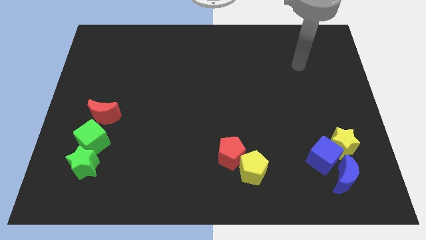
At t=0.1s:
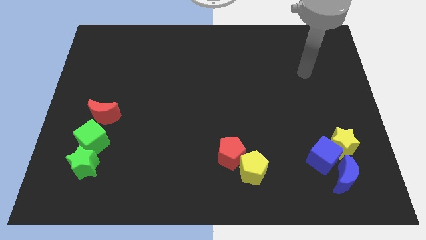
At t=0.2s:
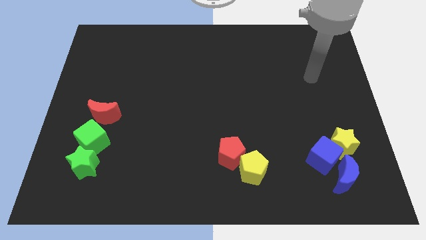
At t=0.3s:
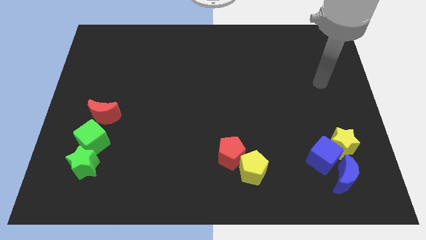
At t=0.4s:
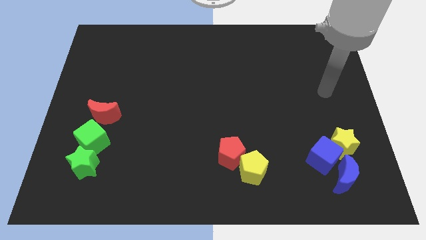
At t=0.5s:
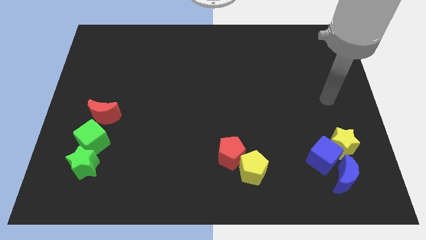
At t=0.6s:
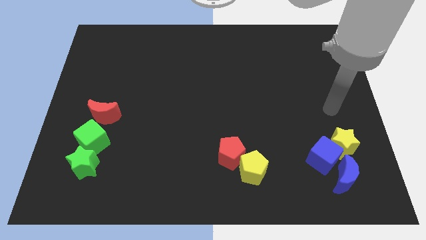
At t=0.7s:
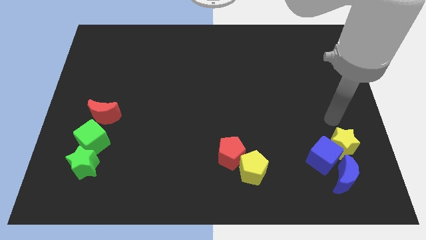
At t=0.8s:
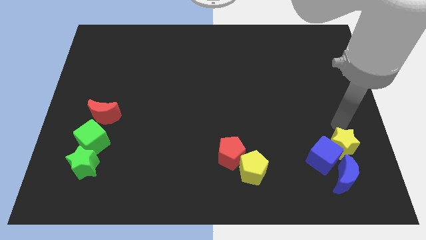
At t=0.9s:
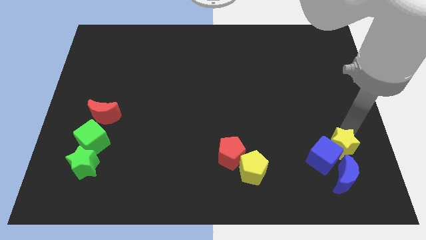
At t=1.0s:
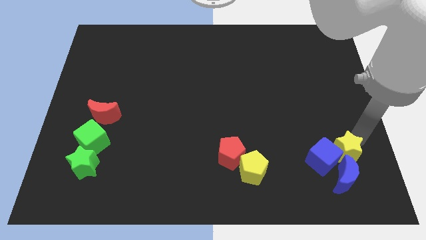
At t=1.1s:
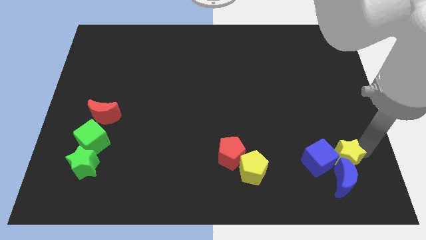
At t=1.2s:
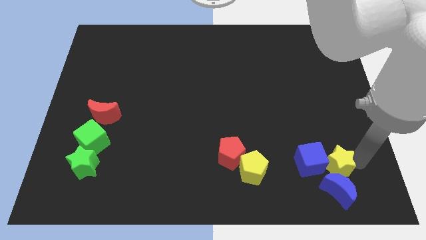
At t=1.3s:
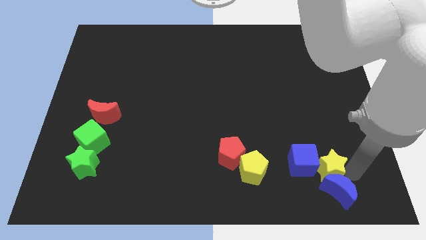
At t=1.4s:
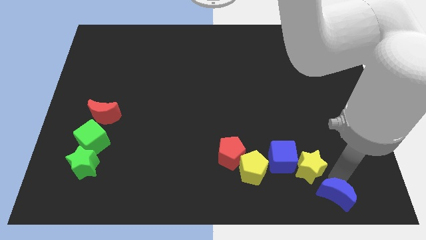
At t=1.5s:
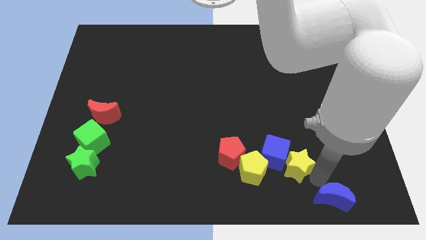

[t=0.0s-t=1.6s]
separate the blue cube from the yellow star and blue moon

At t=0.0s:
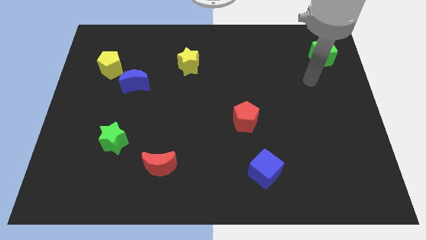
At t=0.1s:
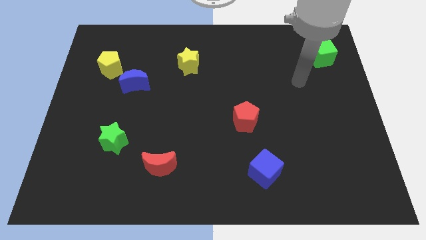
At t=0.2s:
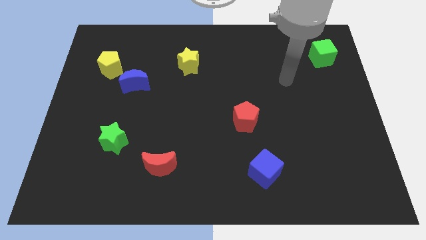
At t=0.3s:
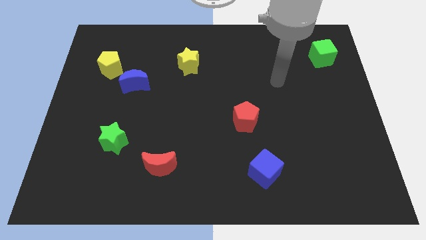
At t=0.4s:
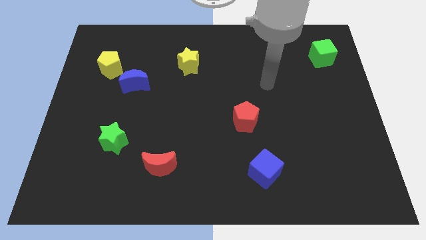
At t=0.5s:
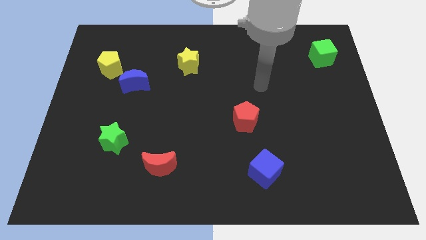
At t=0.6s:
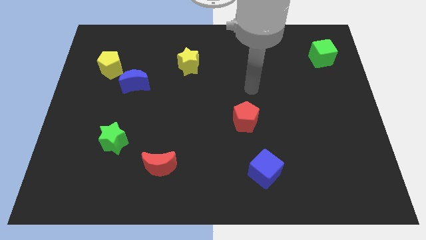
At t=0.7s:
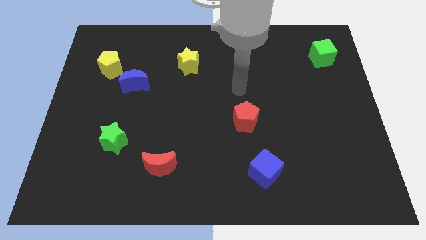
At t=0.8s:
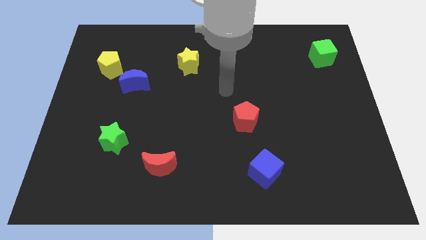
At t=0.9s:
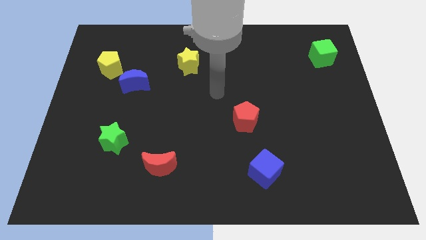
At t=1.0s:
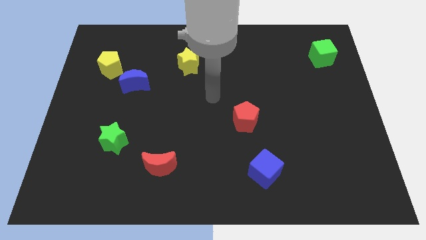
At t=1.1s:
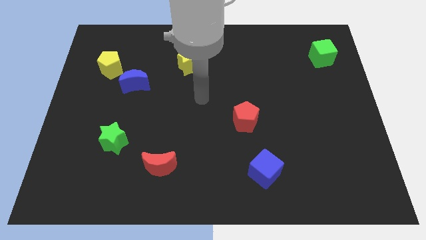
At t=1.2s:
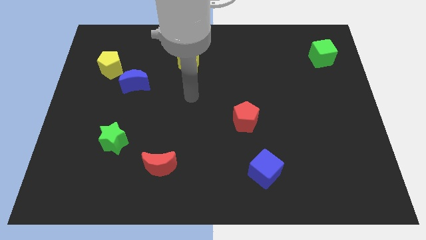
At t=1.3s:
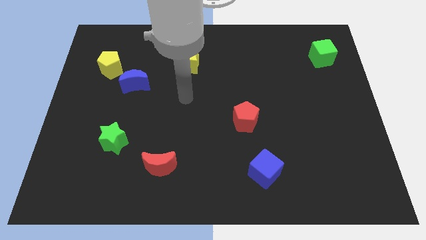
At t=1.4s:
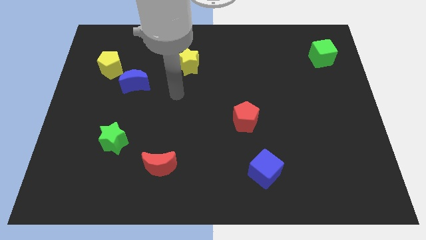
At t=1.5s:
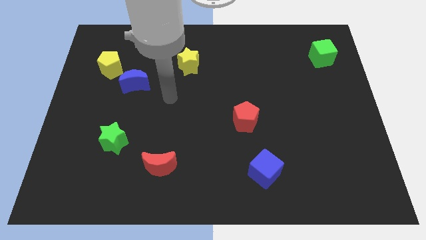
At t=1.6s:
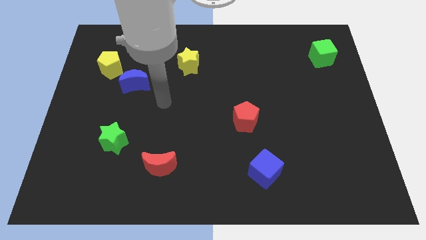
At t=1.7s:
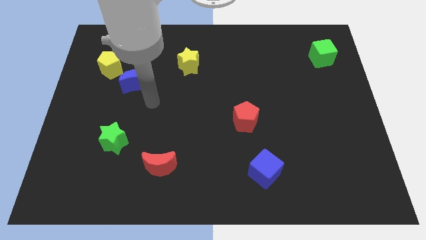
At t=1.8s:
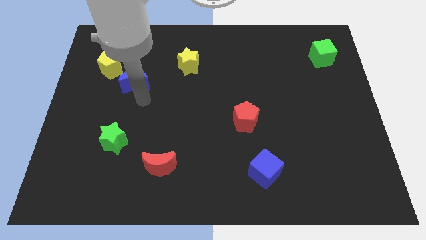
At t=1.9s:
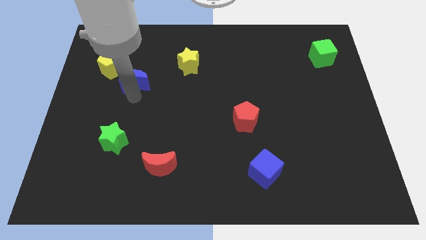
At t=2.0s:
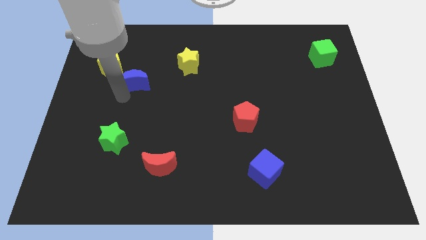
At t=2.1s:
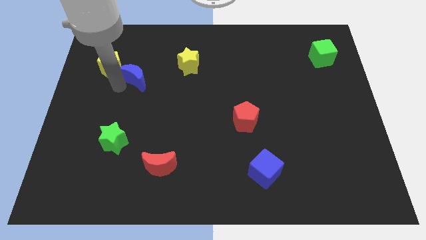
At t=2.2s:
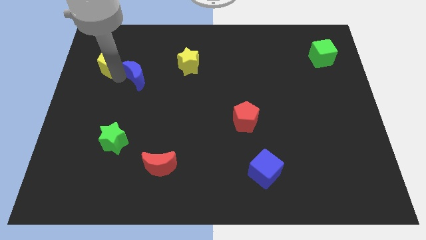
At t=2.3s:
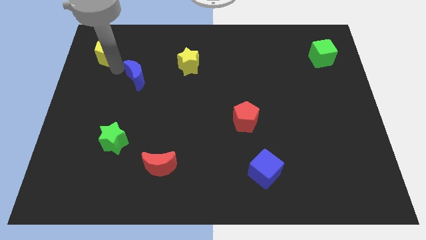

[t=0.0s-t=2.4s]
move the blue moon away from the yellow pentagon

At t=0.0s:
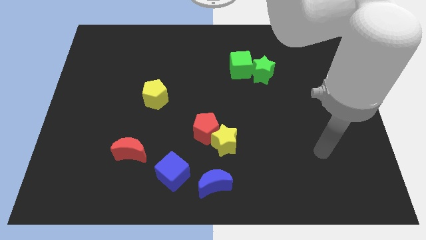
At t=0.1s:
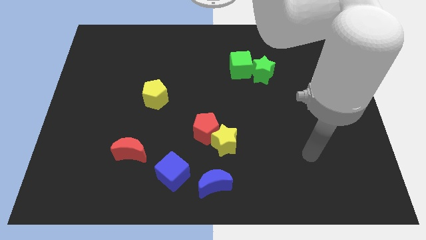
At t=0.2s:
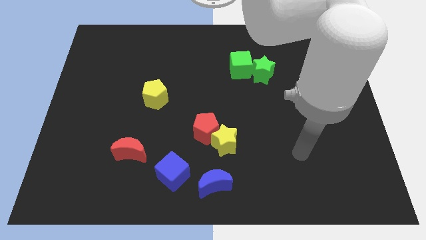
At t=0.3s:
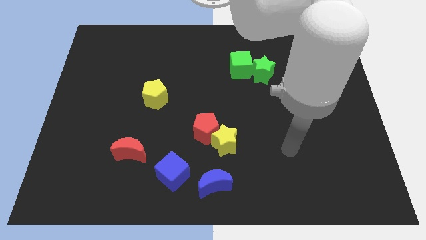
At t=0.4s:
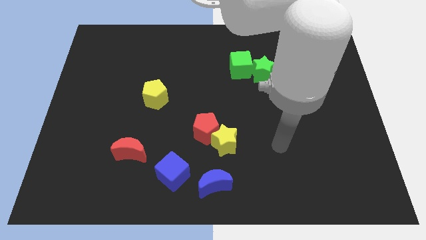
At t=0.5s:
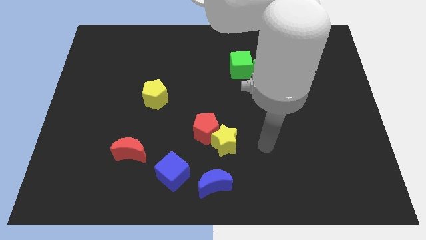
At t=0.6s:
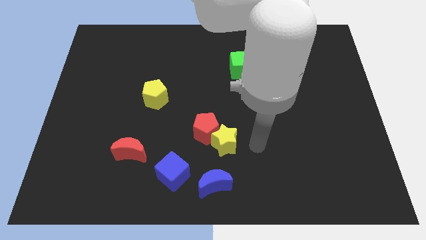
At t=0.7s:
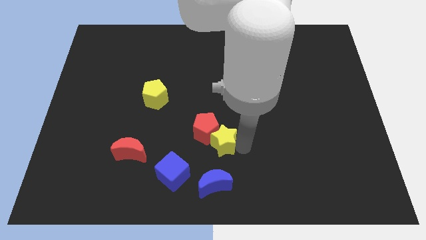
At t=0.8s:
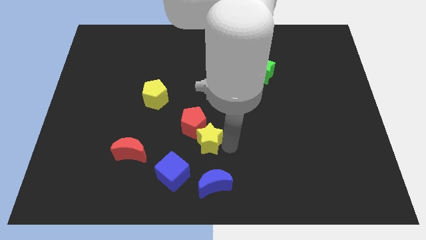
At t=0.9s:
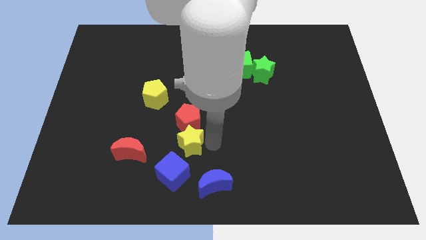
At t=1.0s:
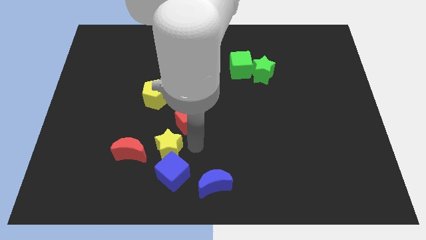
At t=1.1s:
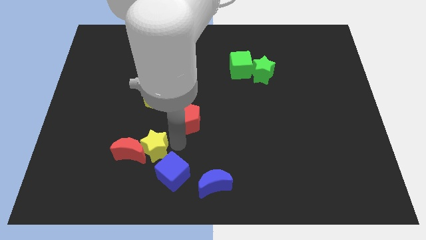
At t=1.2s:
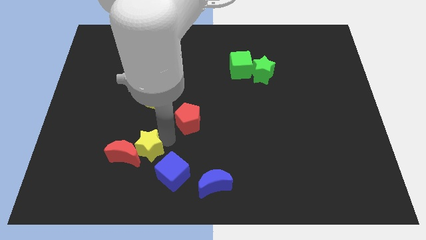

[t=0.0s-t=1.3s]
pull the red pentagon apart from the yellow star

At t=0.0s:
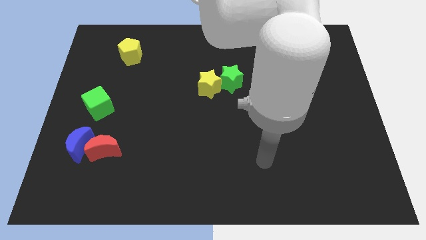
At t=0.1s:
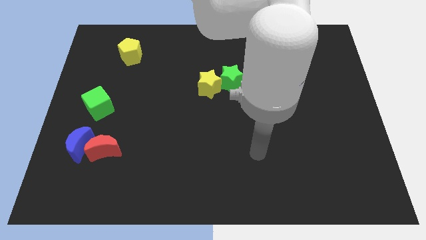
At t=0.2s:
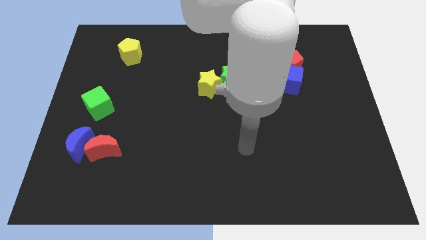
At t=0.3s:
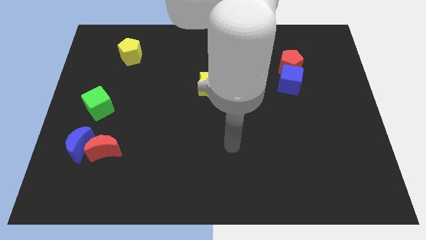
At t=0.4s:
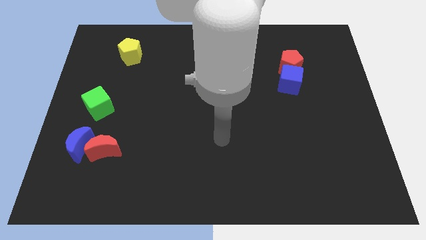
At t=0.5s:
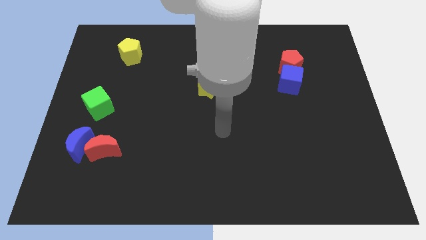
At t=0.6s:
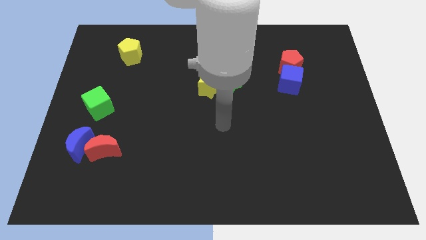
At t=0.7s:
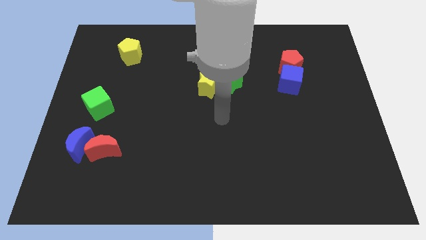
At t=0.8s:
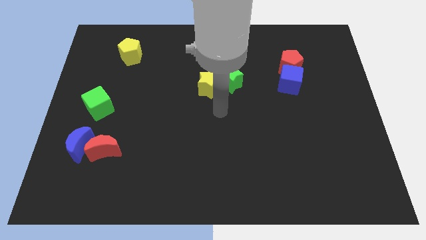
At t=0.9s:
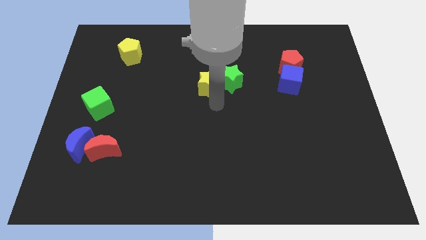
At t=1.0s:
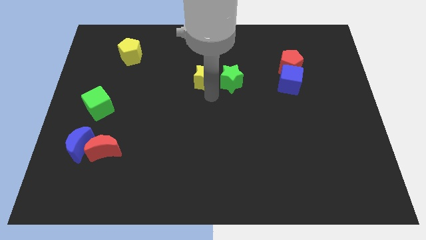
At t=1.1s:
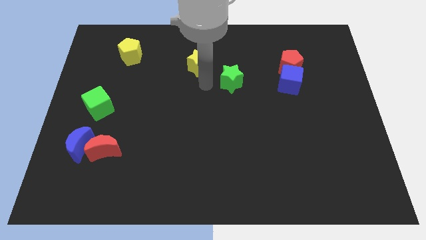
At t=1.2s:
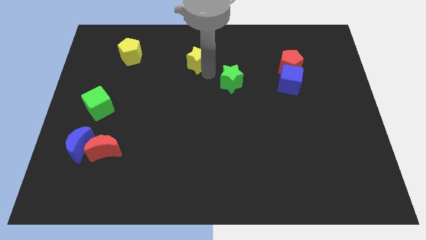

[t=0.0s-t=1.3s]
pull the green star apart from the yellow star

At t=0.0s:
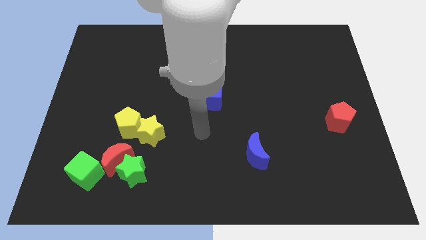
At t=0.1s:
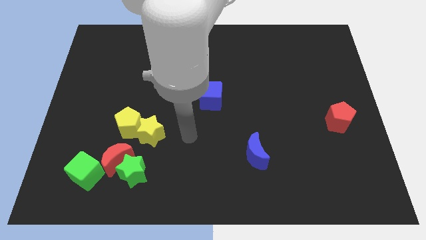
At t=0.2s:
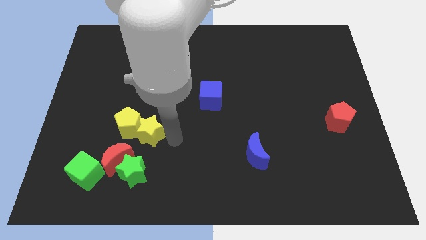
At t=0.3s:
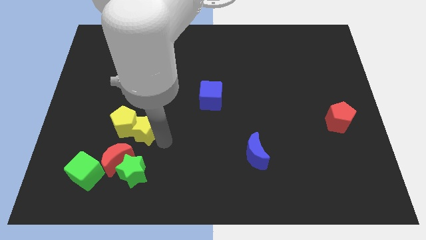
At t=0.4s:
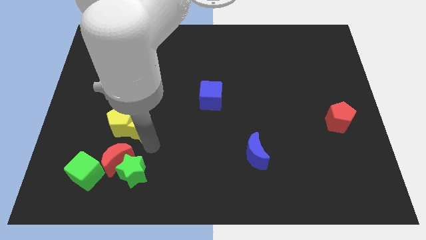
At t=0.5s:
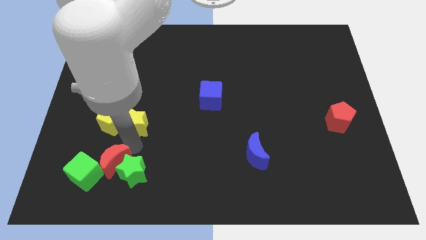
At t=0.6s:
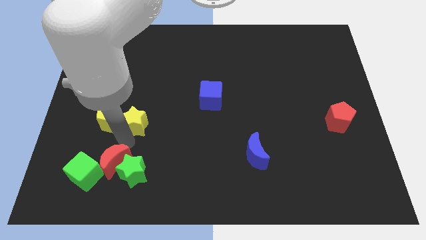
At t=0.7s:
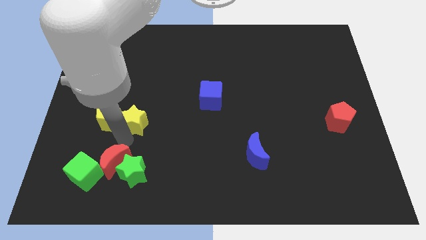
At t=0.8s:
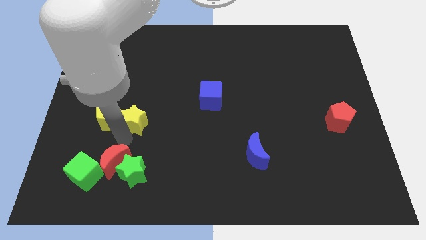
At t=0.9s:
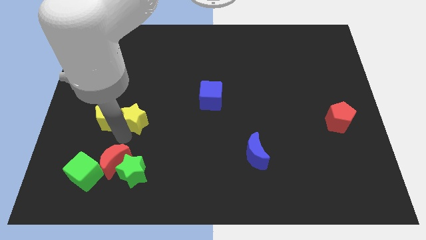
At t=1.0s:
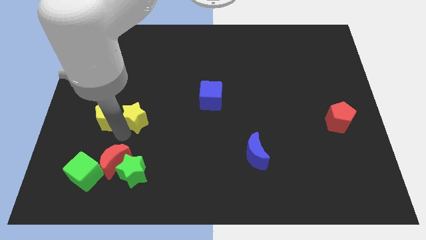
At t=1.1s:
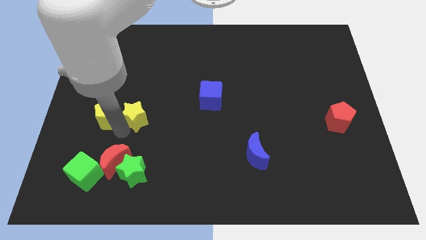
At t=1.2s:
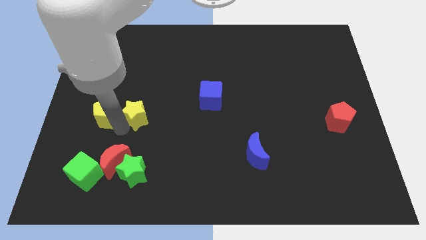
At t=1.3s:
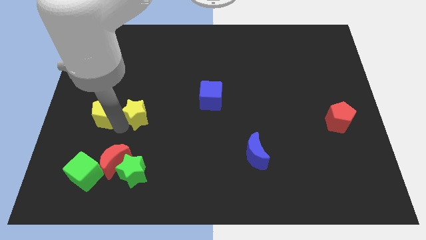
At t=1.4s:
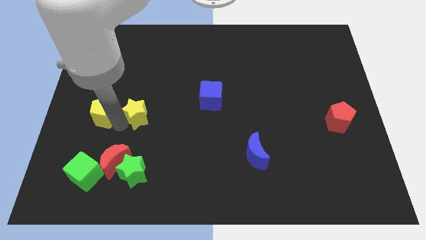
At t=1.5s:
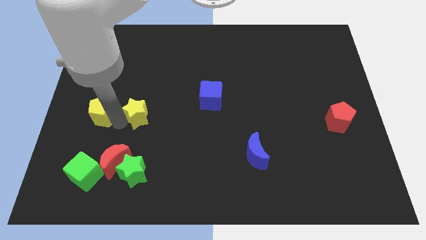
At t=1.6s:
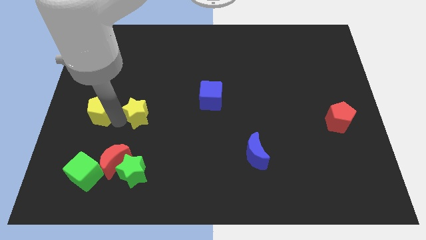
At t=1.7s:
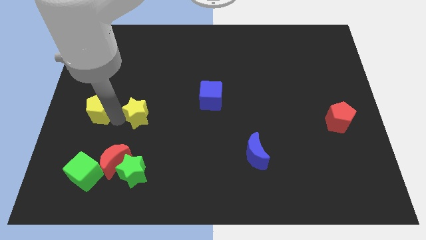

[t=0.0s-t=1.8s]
separate the yellow pentagon from the yellow star and red moon

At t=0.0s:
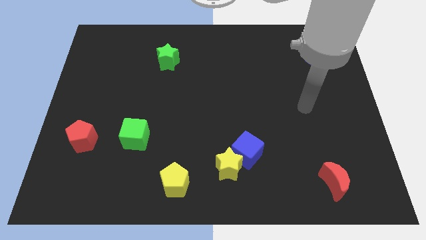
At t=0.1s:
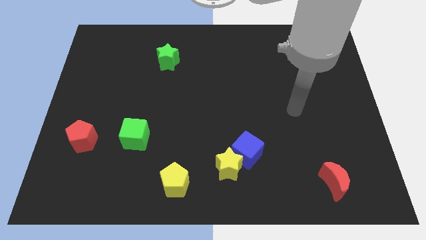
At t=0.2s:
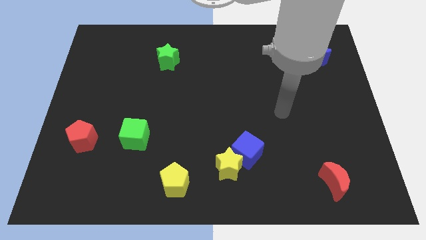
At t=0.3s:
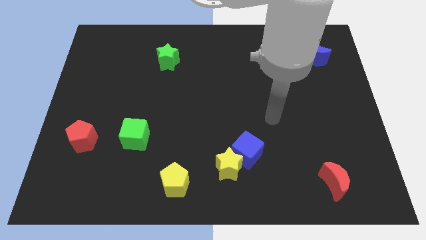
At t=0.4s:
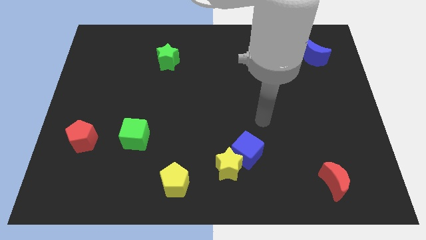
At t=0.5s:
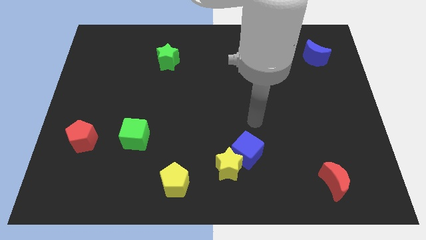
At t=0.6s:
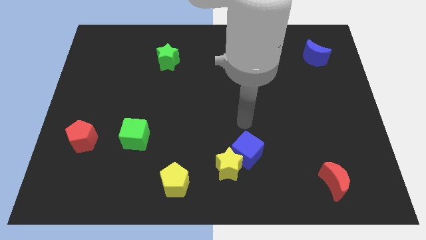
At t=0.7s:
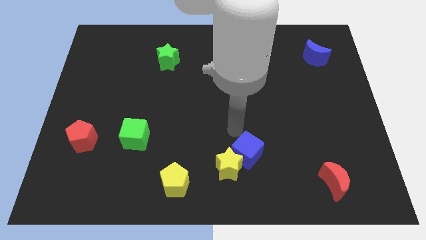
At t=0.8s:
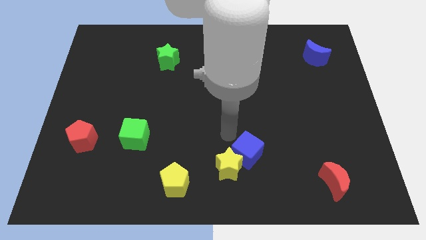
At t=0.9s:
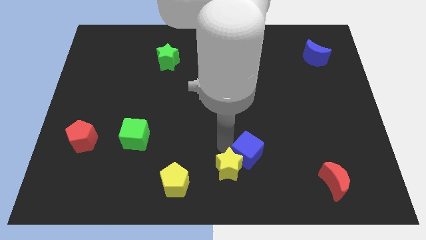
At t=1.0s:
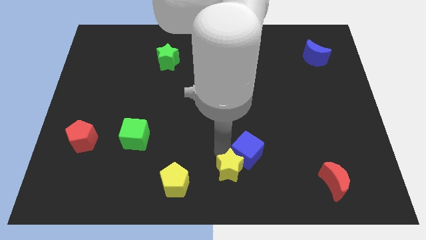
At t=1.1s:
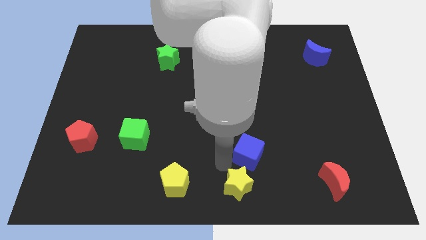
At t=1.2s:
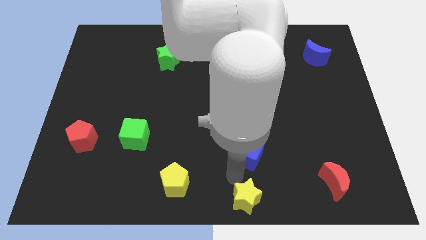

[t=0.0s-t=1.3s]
separate the blue cube from the yellow star
